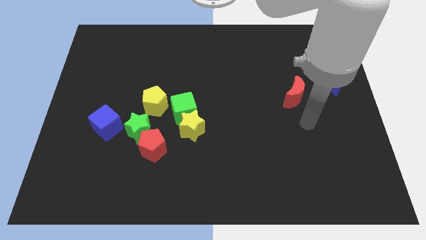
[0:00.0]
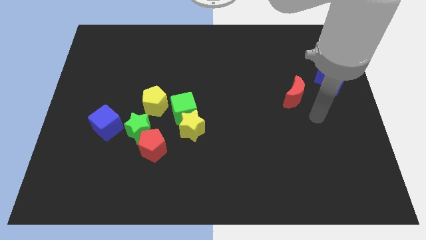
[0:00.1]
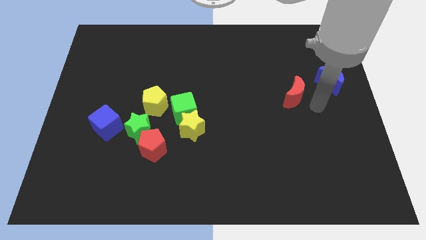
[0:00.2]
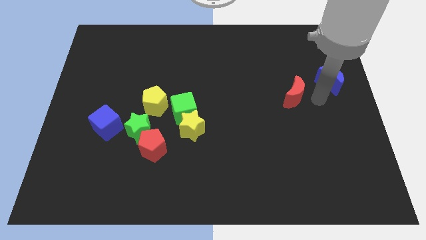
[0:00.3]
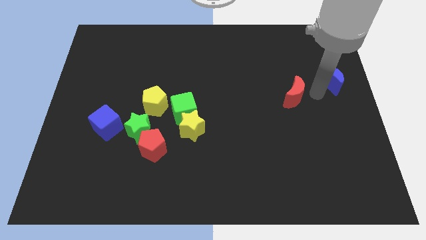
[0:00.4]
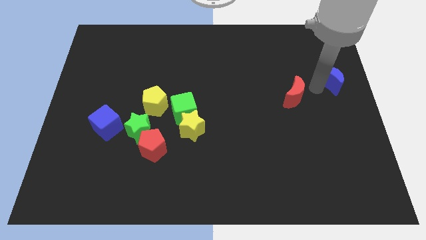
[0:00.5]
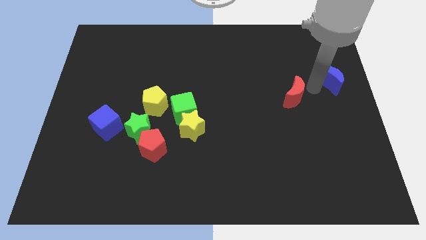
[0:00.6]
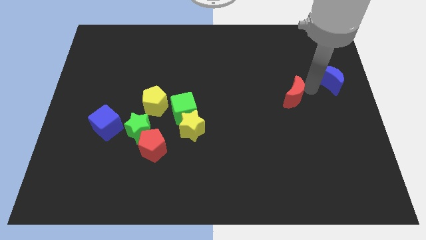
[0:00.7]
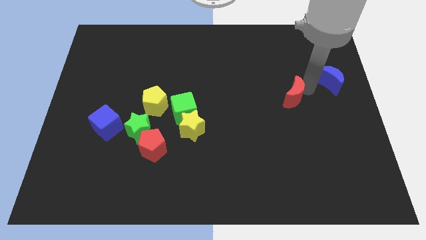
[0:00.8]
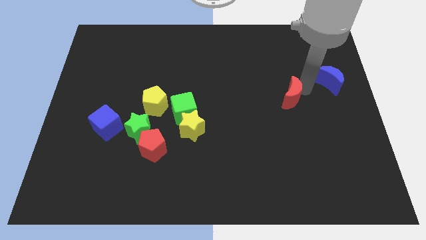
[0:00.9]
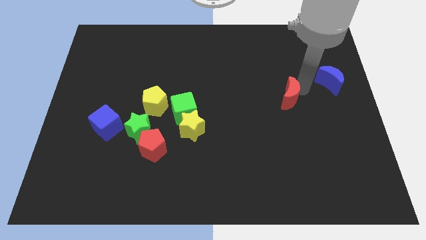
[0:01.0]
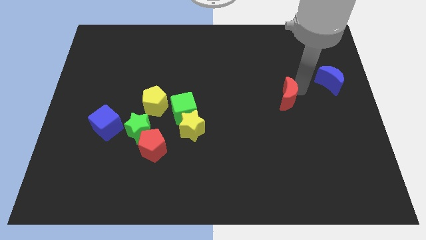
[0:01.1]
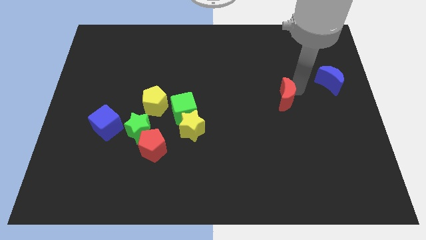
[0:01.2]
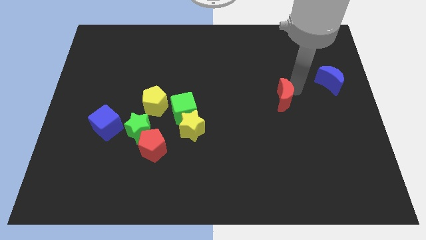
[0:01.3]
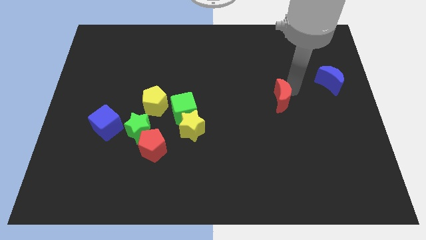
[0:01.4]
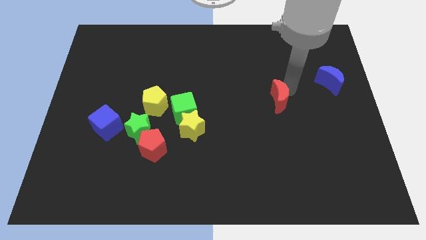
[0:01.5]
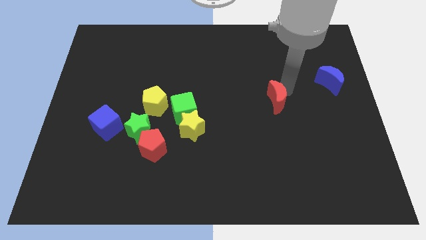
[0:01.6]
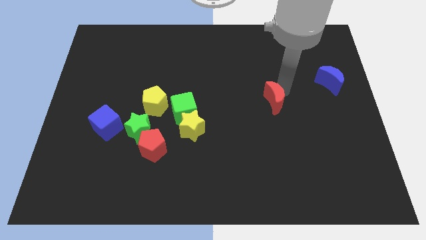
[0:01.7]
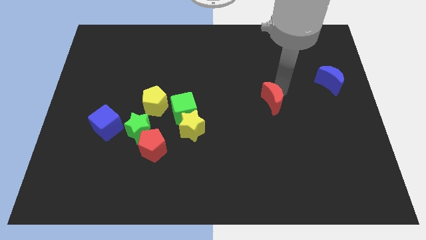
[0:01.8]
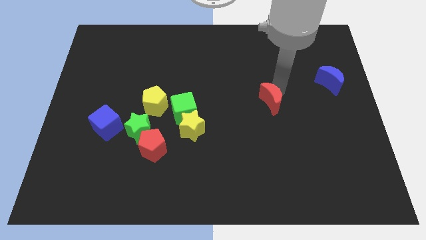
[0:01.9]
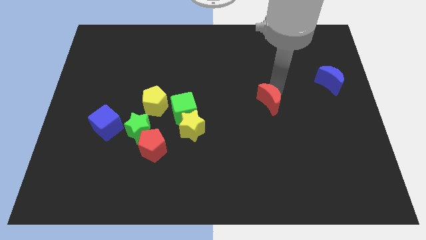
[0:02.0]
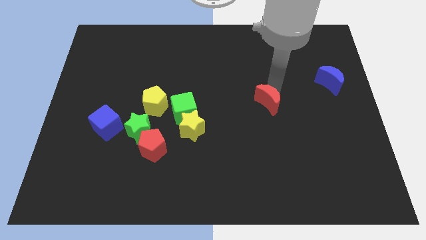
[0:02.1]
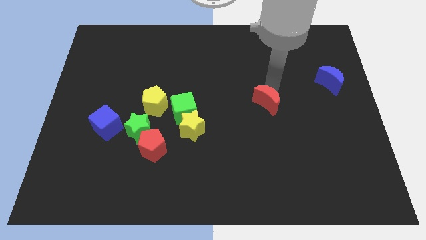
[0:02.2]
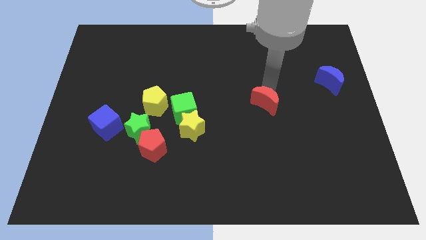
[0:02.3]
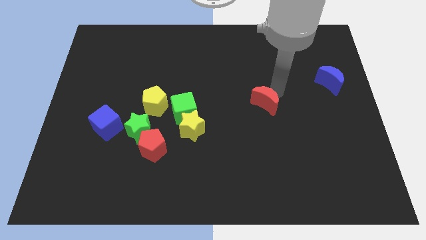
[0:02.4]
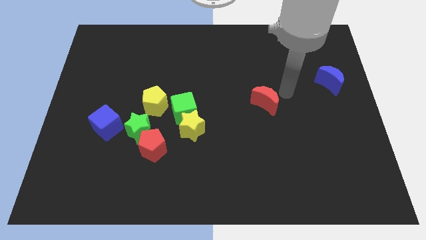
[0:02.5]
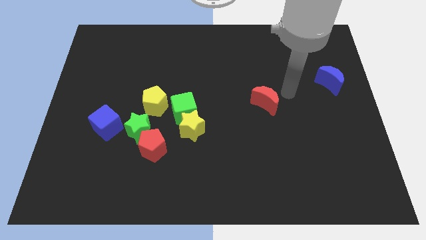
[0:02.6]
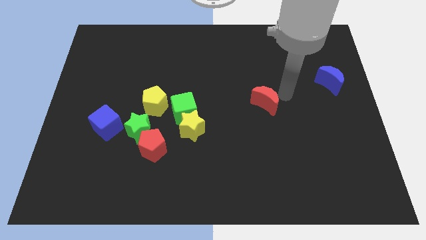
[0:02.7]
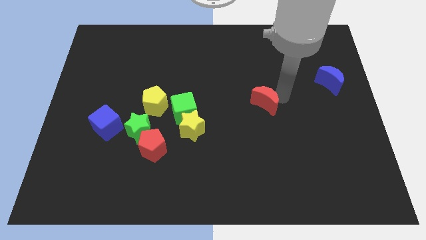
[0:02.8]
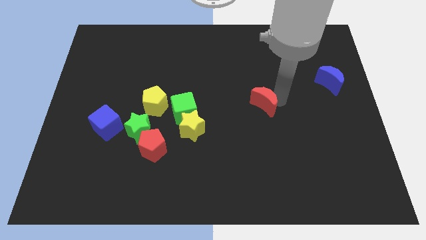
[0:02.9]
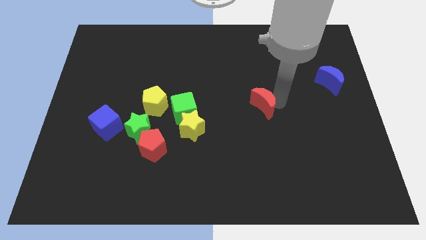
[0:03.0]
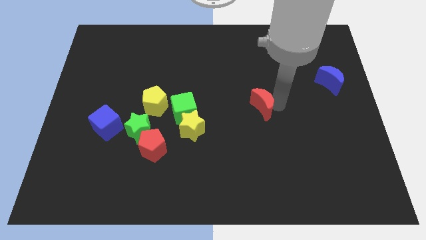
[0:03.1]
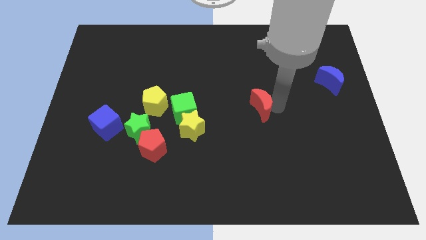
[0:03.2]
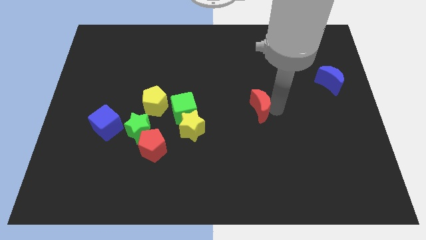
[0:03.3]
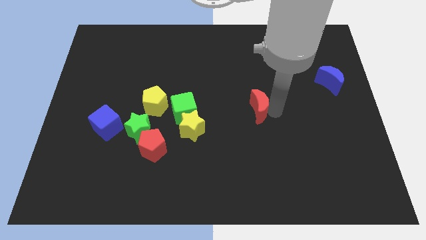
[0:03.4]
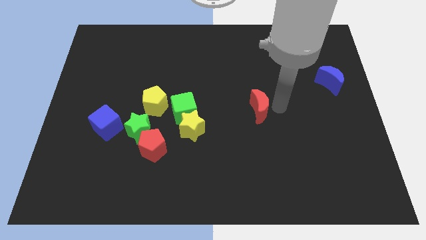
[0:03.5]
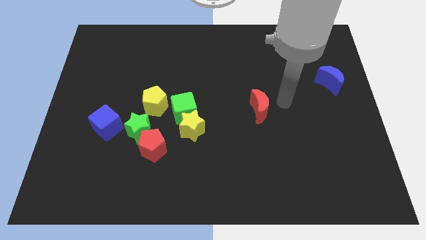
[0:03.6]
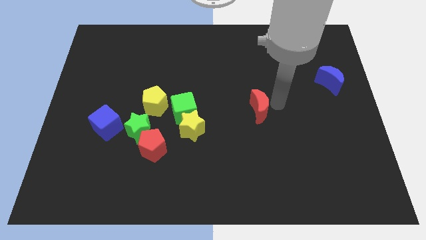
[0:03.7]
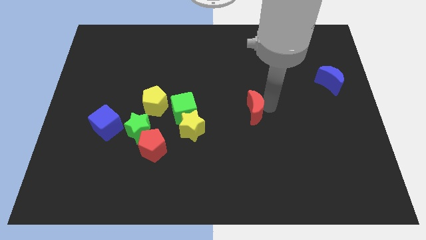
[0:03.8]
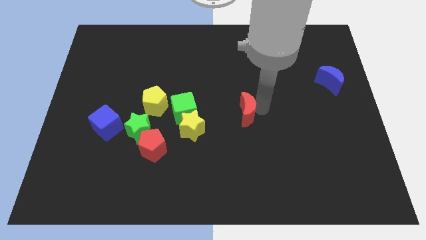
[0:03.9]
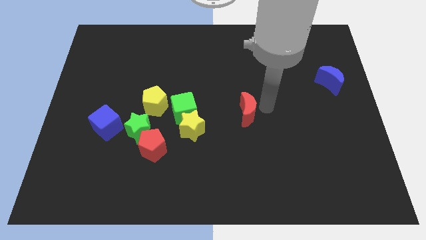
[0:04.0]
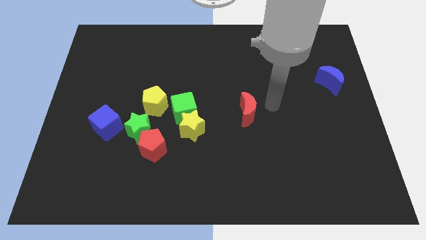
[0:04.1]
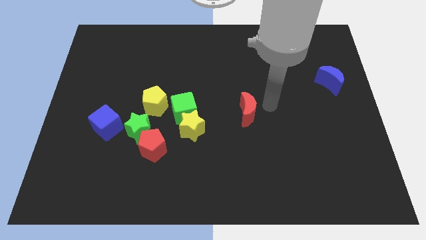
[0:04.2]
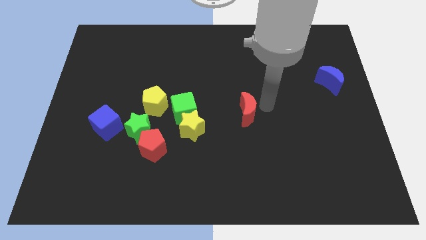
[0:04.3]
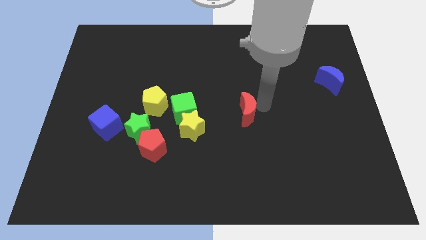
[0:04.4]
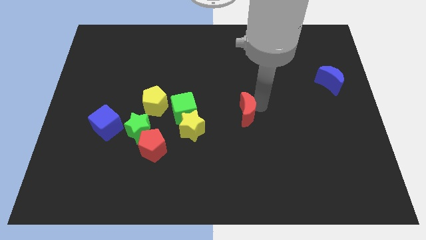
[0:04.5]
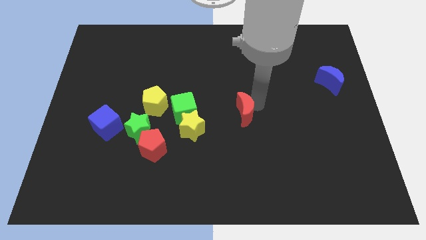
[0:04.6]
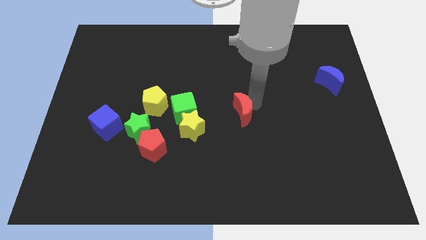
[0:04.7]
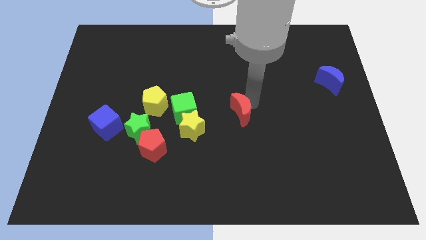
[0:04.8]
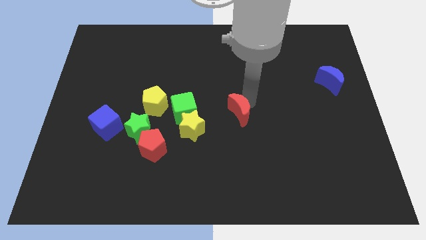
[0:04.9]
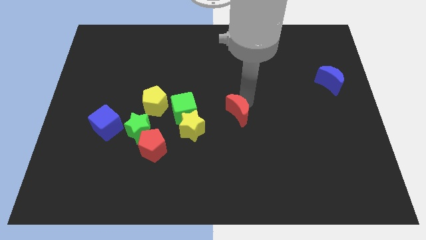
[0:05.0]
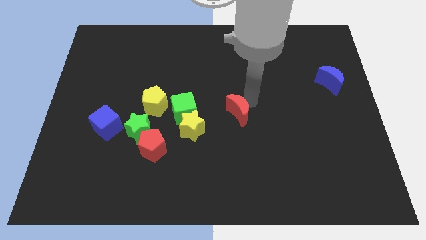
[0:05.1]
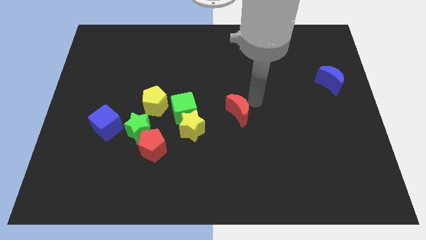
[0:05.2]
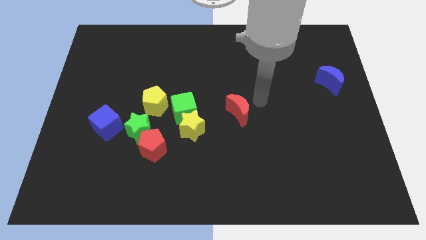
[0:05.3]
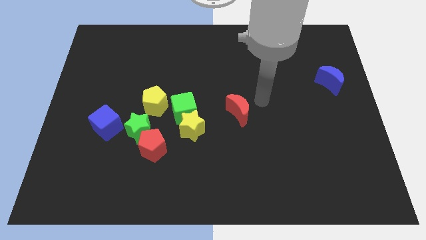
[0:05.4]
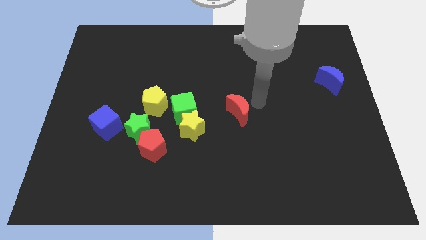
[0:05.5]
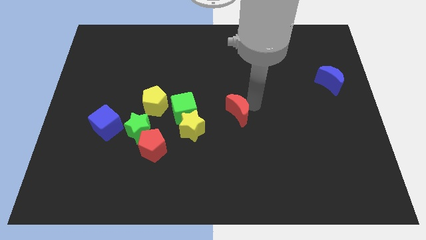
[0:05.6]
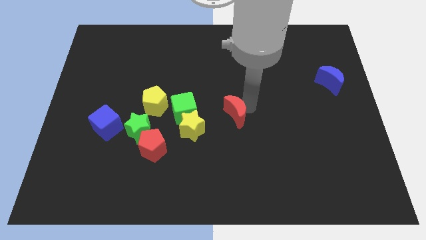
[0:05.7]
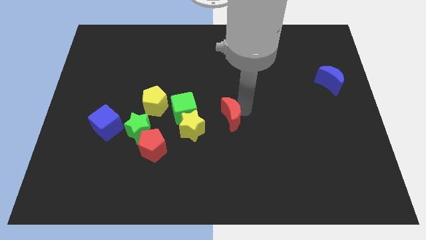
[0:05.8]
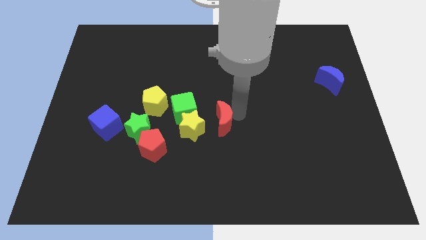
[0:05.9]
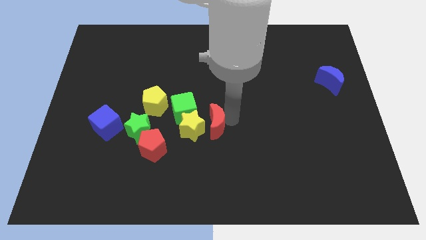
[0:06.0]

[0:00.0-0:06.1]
move the red moon towards the yellow star

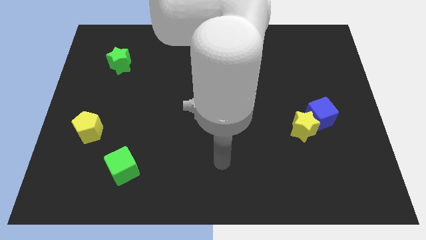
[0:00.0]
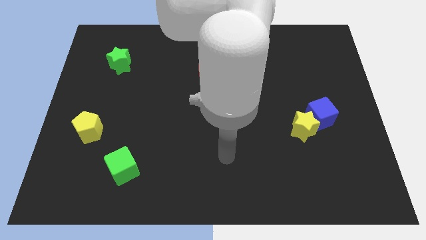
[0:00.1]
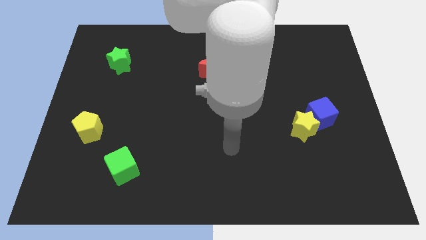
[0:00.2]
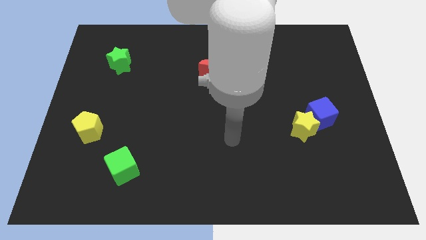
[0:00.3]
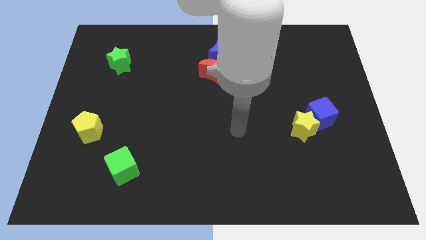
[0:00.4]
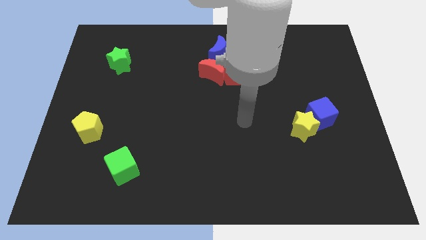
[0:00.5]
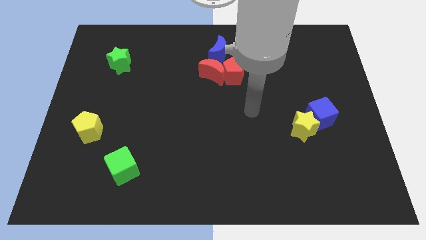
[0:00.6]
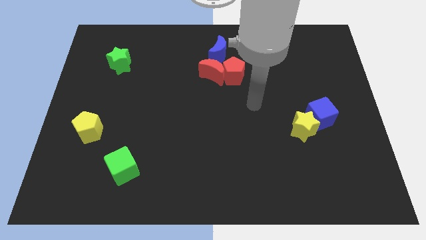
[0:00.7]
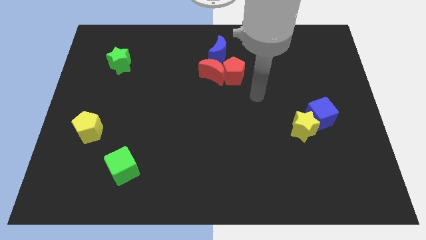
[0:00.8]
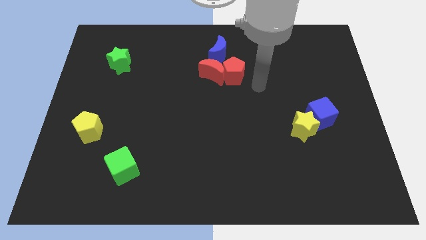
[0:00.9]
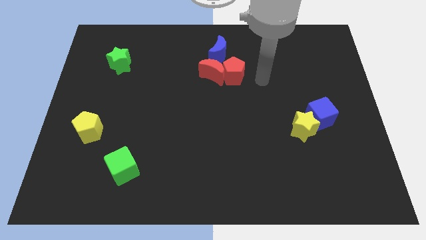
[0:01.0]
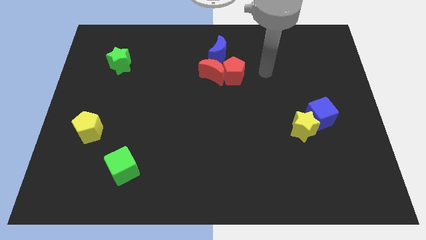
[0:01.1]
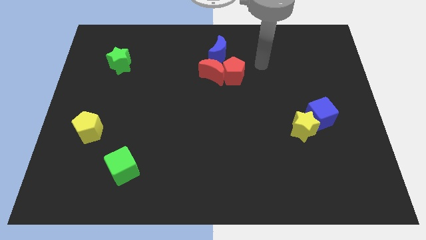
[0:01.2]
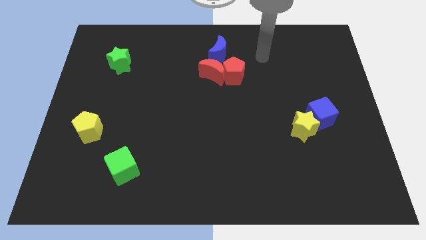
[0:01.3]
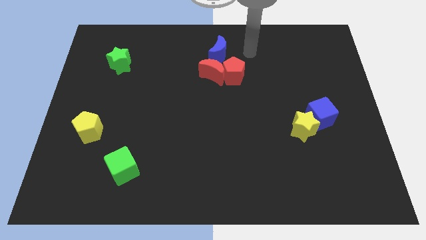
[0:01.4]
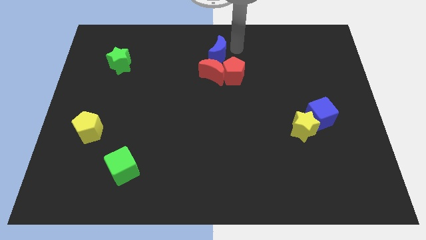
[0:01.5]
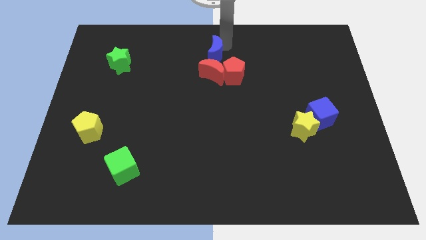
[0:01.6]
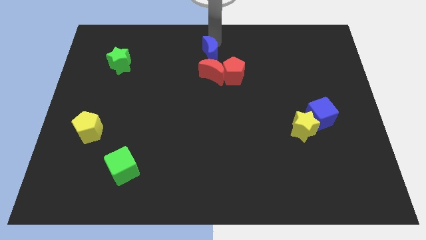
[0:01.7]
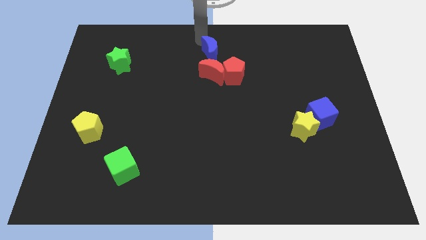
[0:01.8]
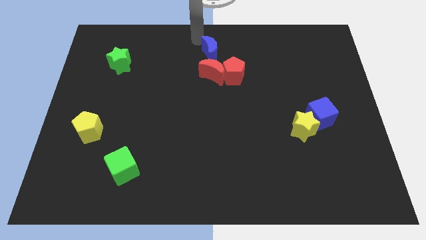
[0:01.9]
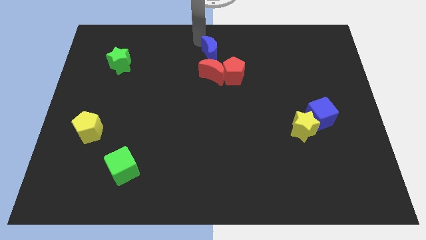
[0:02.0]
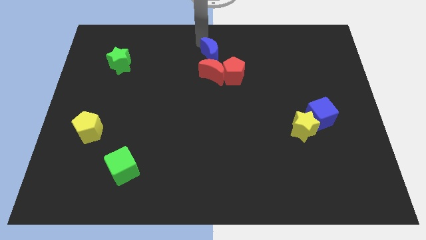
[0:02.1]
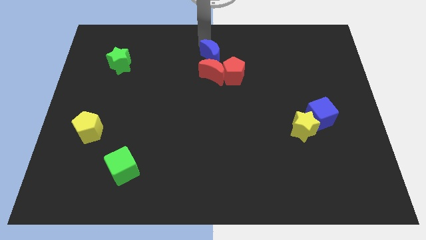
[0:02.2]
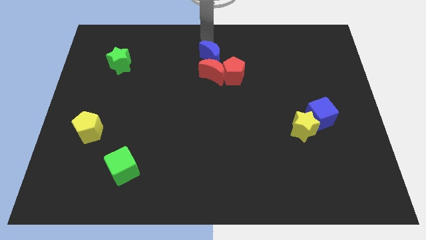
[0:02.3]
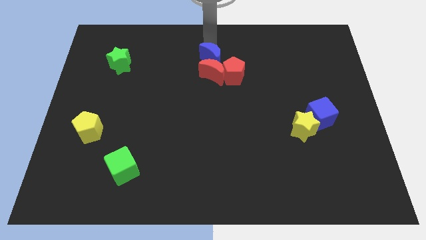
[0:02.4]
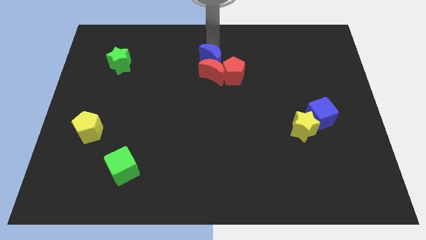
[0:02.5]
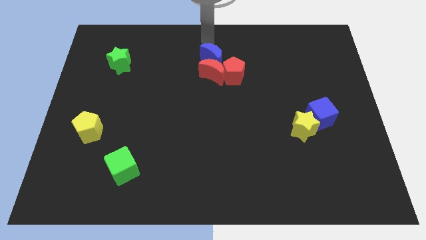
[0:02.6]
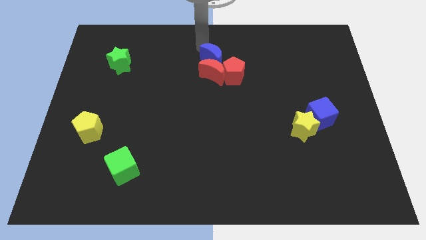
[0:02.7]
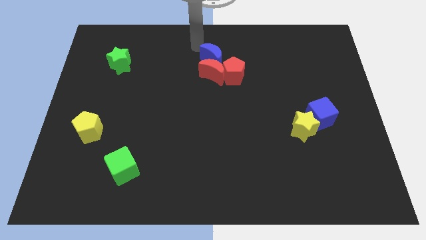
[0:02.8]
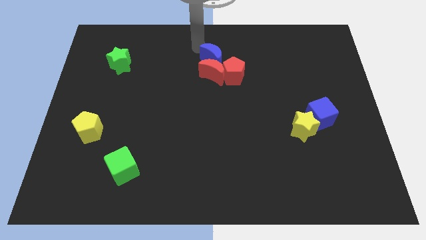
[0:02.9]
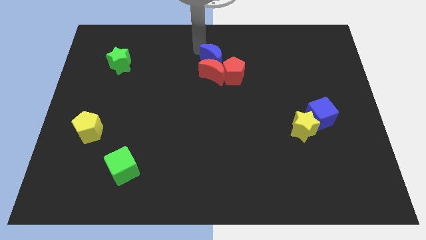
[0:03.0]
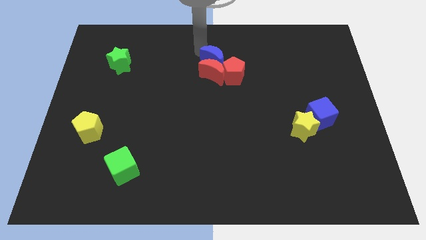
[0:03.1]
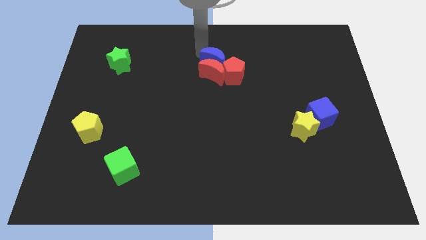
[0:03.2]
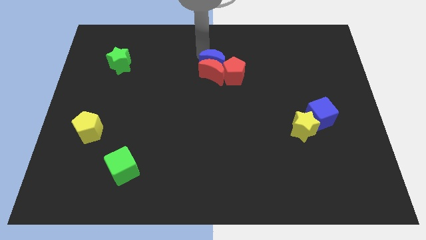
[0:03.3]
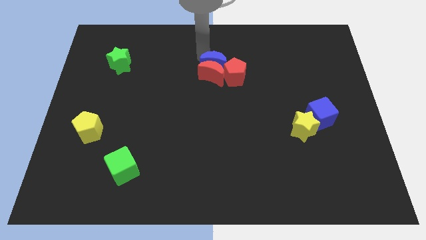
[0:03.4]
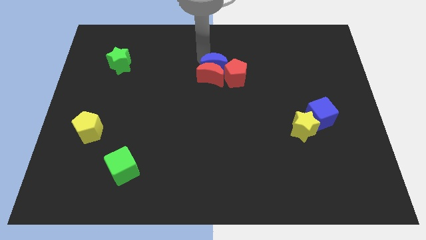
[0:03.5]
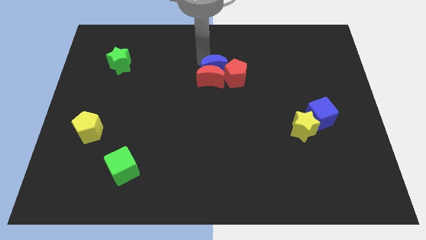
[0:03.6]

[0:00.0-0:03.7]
move the blue moon next to the red pentagon
